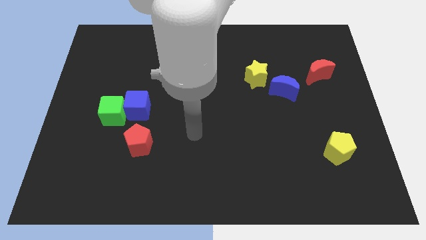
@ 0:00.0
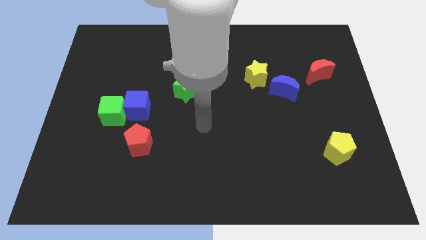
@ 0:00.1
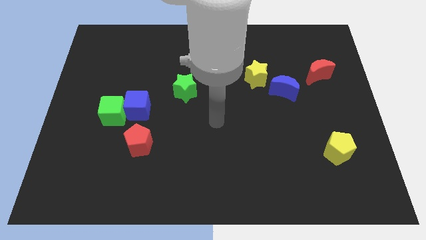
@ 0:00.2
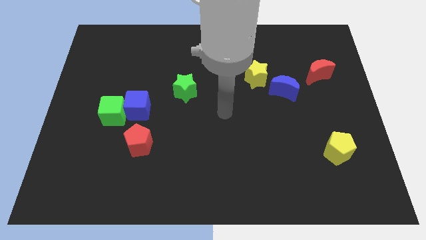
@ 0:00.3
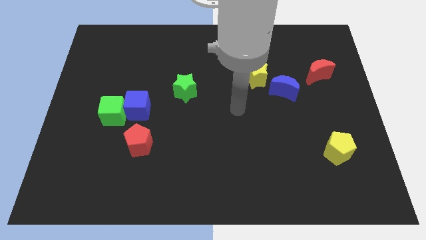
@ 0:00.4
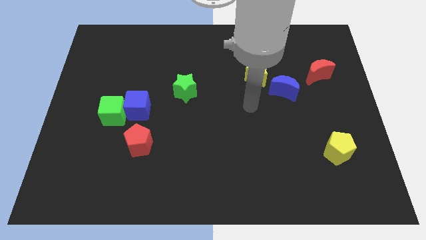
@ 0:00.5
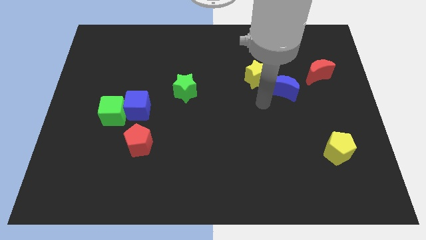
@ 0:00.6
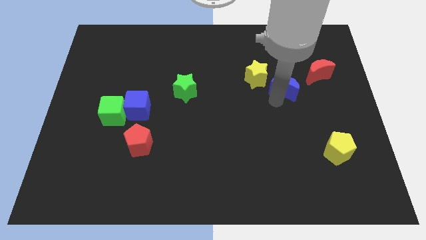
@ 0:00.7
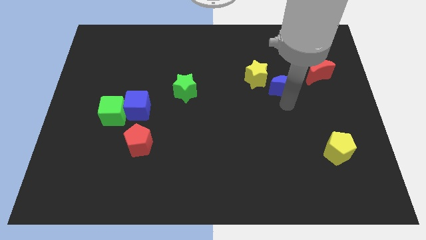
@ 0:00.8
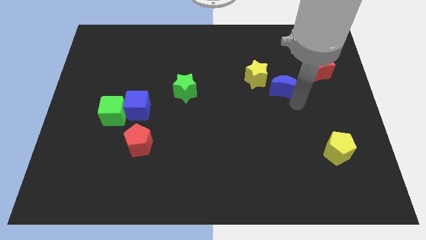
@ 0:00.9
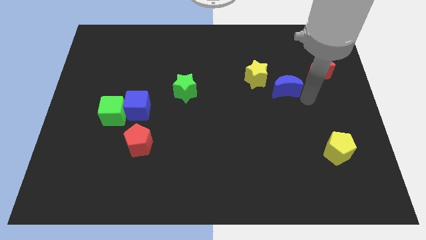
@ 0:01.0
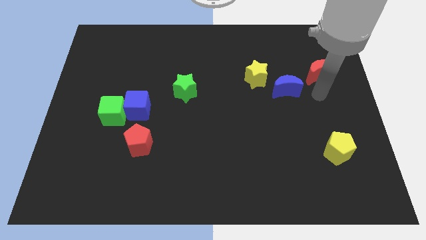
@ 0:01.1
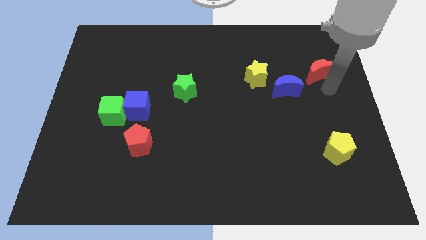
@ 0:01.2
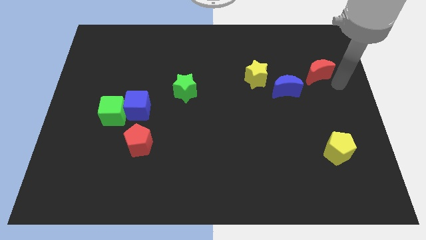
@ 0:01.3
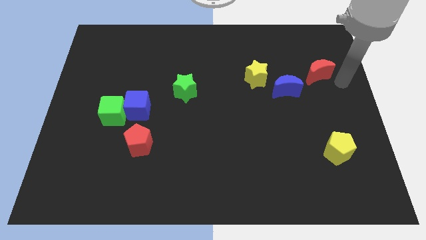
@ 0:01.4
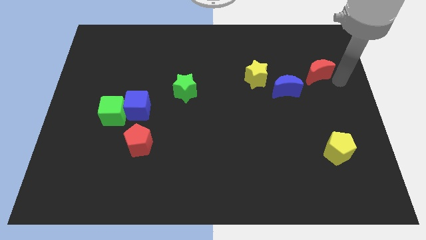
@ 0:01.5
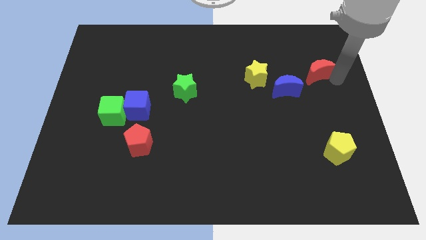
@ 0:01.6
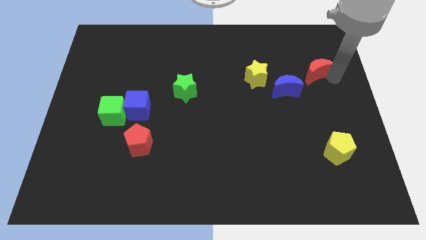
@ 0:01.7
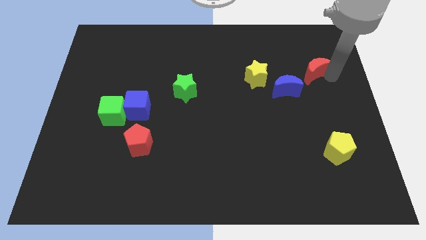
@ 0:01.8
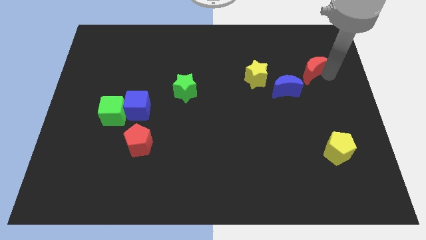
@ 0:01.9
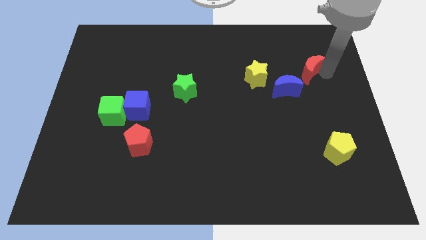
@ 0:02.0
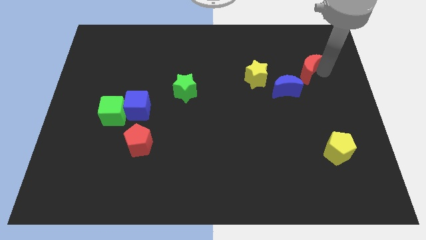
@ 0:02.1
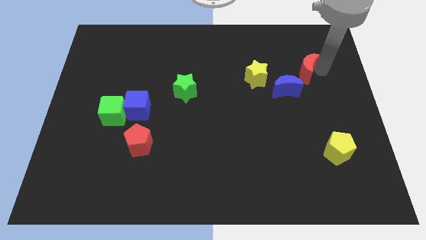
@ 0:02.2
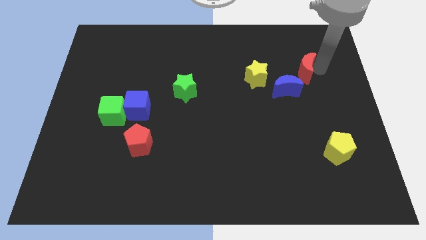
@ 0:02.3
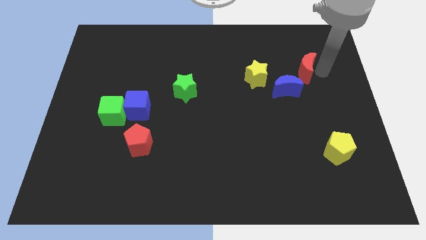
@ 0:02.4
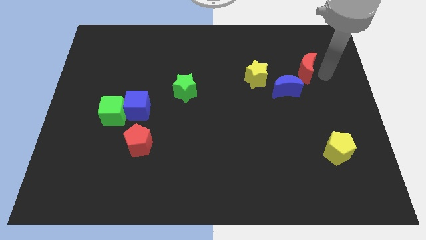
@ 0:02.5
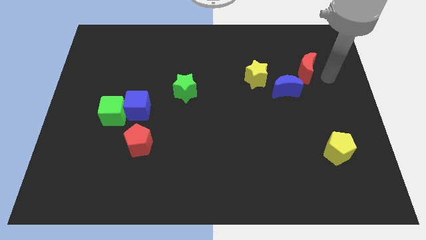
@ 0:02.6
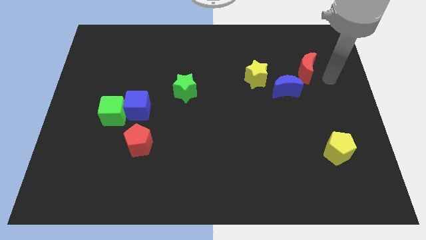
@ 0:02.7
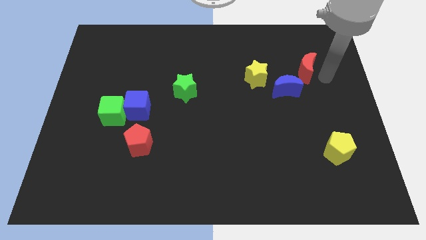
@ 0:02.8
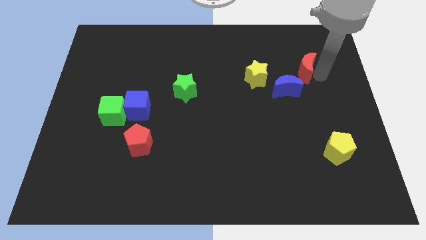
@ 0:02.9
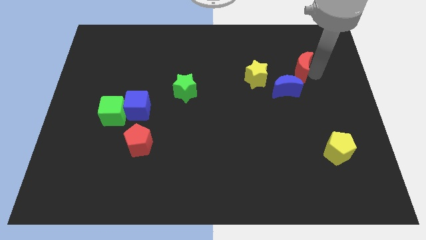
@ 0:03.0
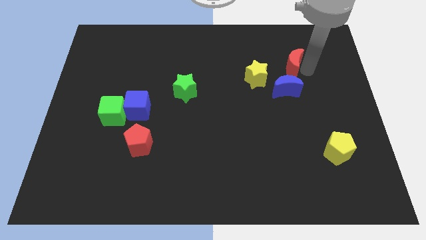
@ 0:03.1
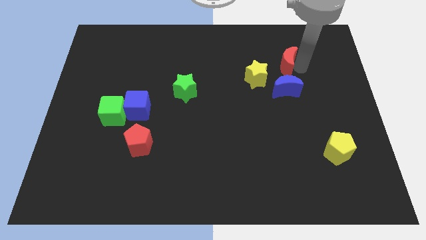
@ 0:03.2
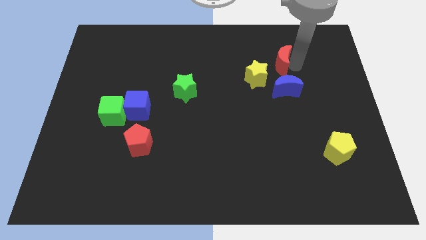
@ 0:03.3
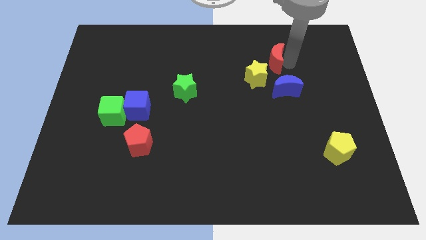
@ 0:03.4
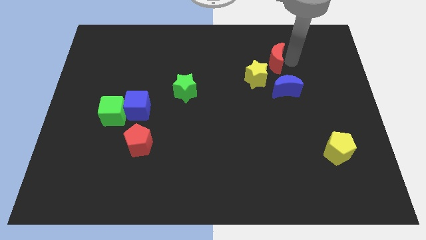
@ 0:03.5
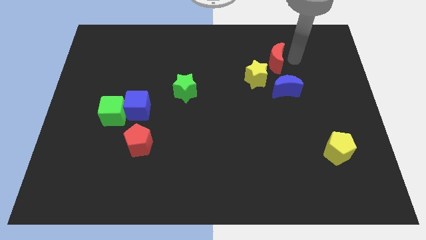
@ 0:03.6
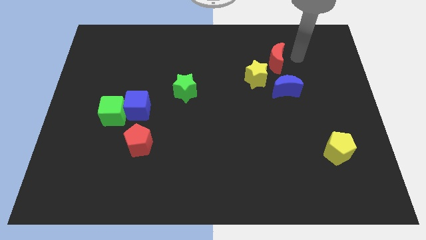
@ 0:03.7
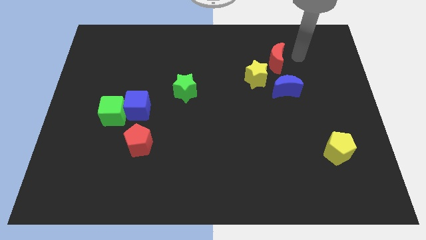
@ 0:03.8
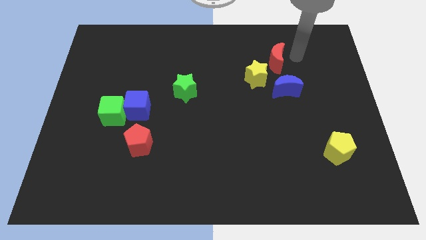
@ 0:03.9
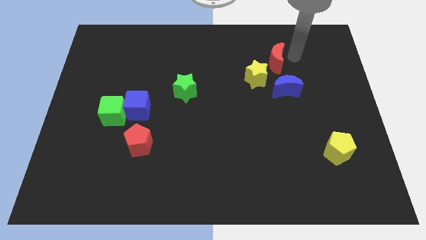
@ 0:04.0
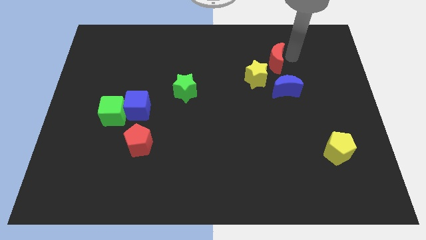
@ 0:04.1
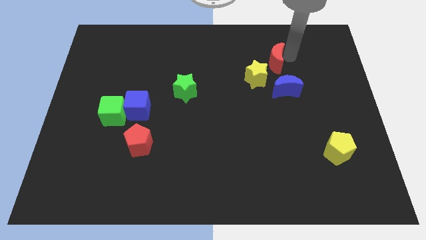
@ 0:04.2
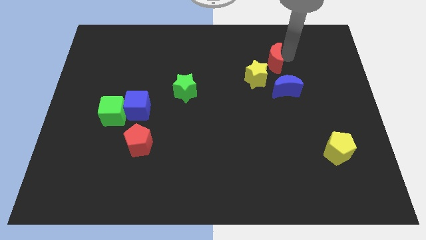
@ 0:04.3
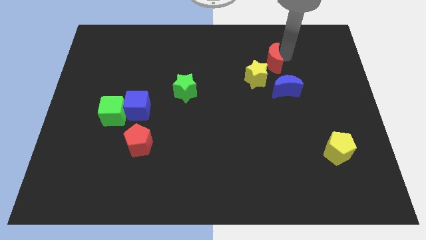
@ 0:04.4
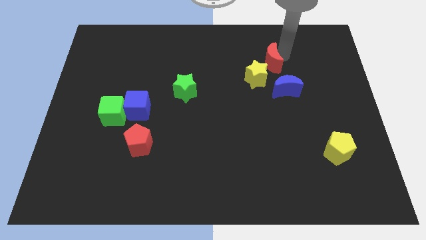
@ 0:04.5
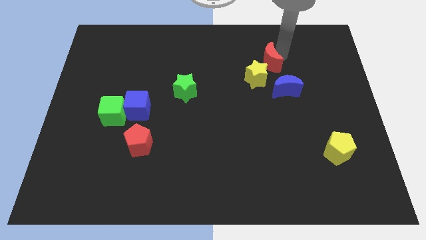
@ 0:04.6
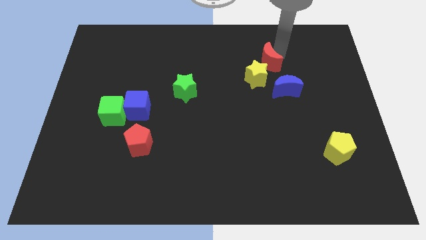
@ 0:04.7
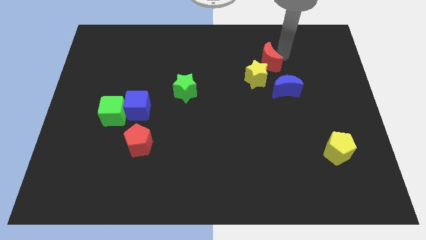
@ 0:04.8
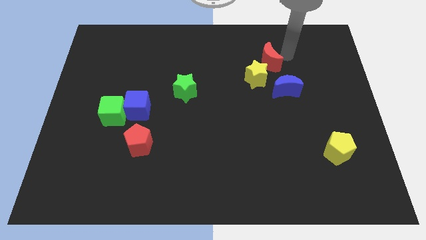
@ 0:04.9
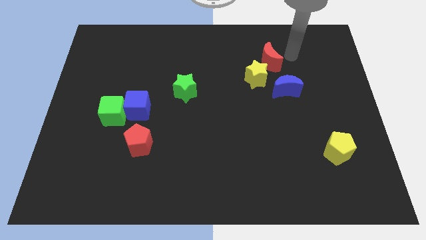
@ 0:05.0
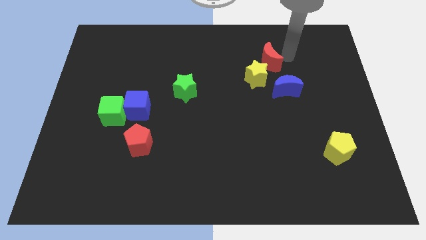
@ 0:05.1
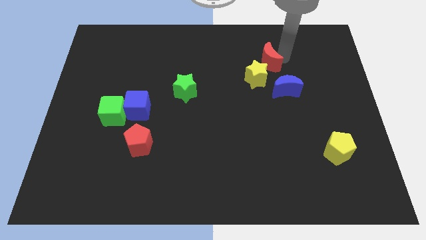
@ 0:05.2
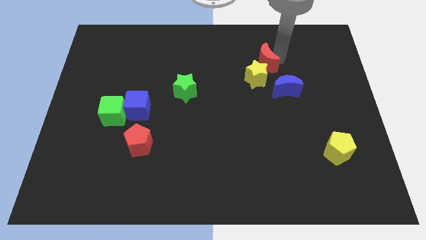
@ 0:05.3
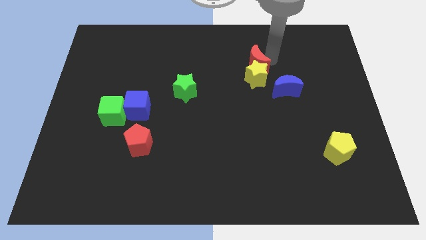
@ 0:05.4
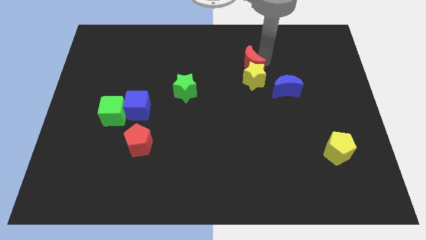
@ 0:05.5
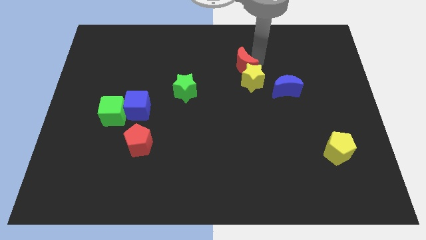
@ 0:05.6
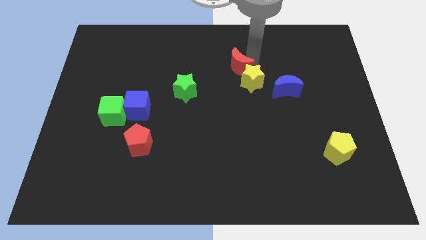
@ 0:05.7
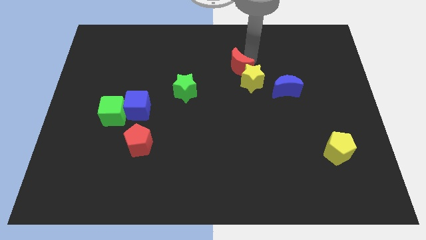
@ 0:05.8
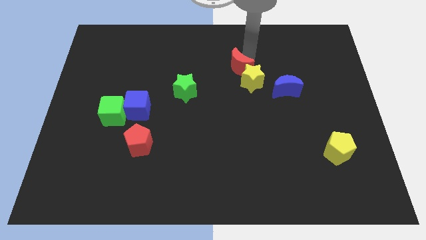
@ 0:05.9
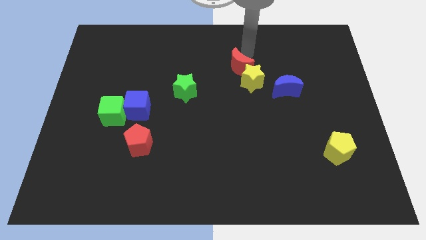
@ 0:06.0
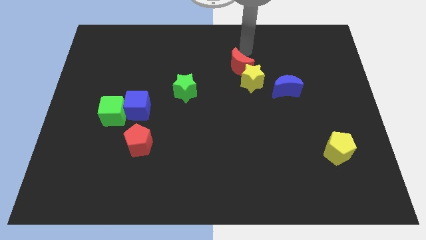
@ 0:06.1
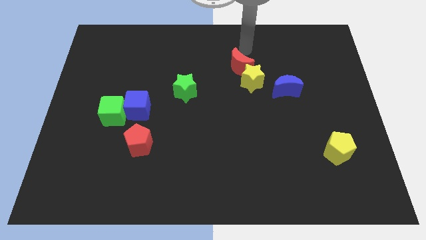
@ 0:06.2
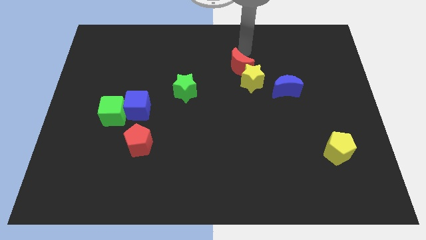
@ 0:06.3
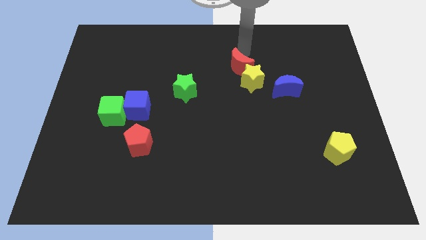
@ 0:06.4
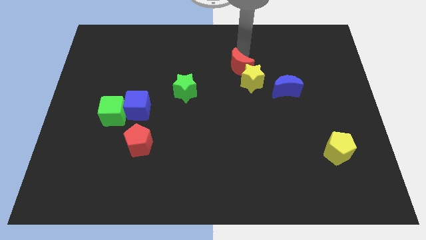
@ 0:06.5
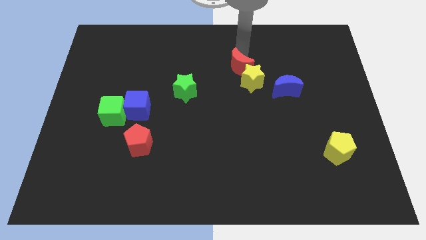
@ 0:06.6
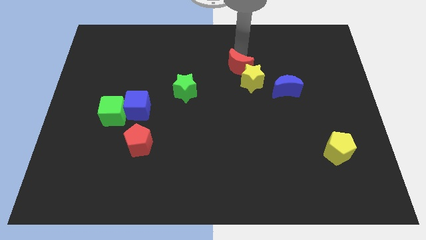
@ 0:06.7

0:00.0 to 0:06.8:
put the red moon to the center
